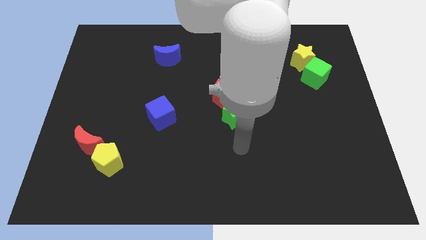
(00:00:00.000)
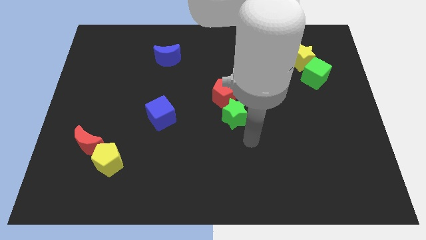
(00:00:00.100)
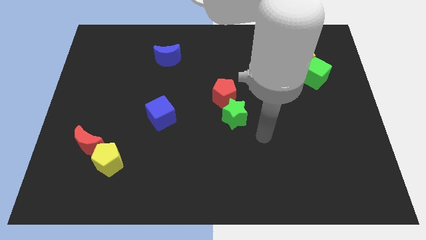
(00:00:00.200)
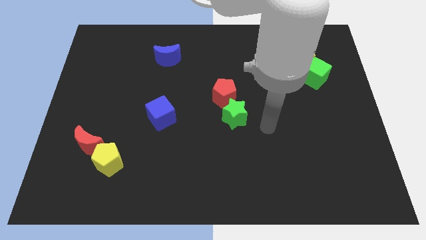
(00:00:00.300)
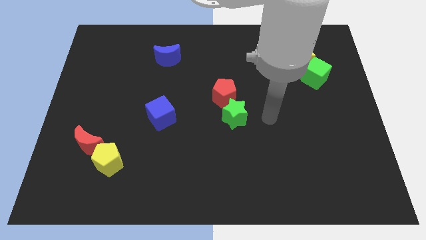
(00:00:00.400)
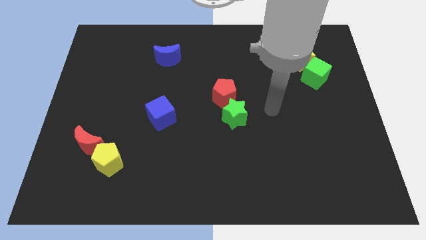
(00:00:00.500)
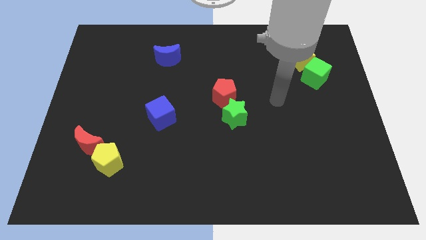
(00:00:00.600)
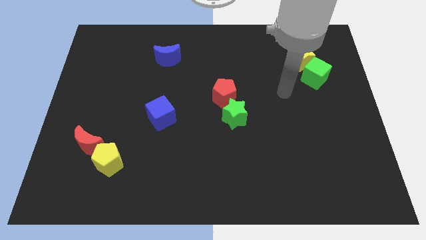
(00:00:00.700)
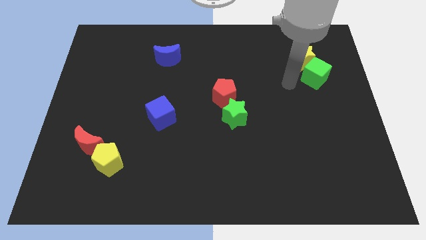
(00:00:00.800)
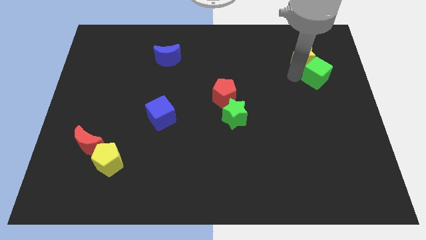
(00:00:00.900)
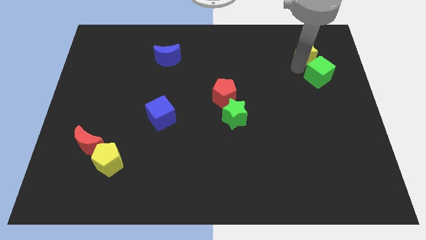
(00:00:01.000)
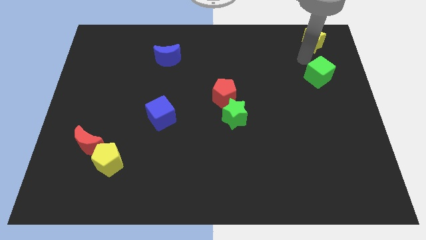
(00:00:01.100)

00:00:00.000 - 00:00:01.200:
move the green cube away from the yellow star

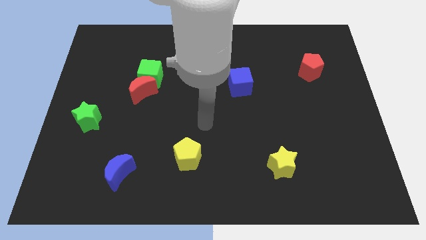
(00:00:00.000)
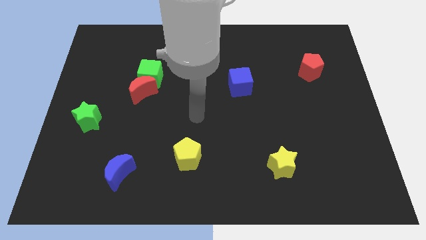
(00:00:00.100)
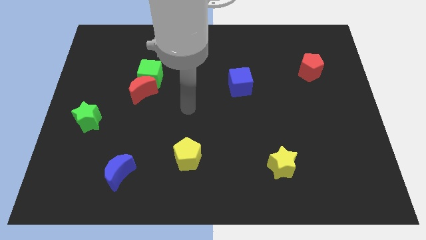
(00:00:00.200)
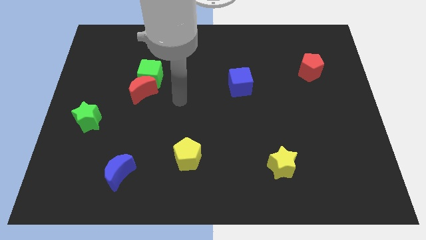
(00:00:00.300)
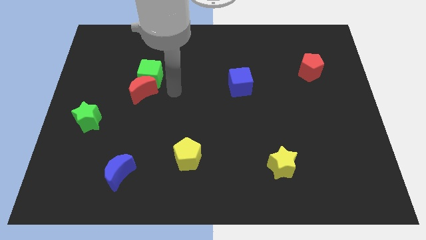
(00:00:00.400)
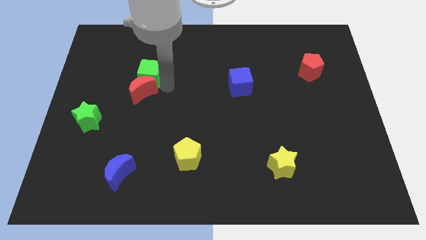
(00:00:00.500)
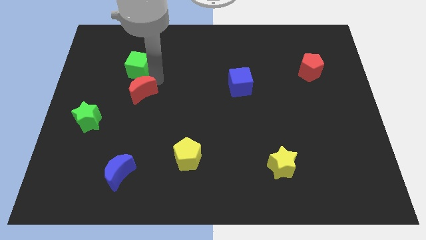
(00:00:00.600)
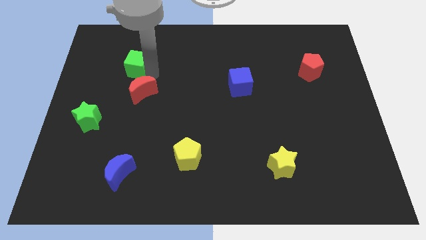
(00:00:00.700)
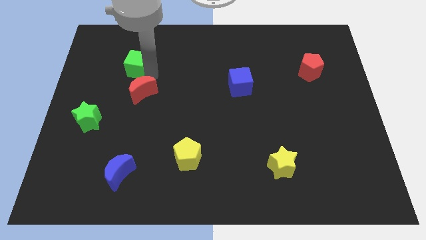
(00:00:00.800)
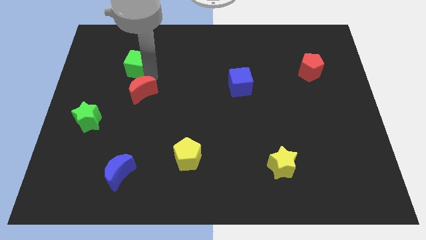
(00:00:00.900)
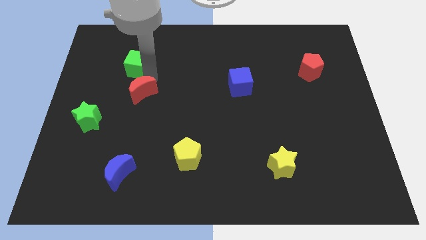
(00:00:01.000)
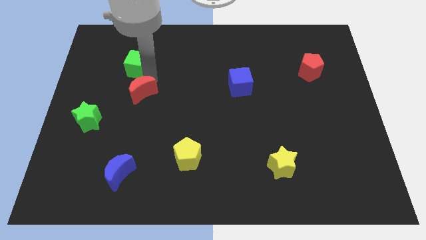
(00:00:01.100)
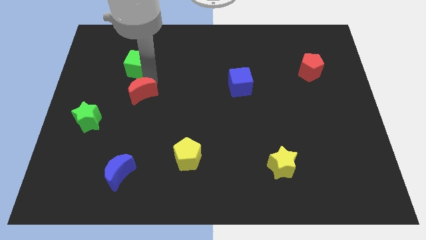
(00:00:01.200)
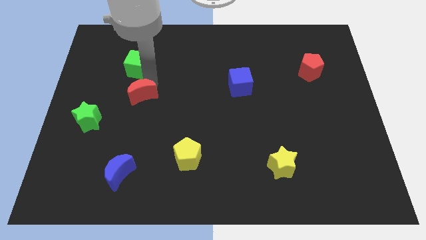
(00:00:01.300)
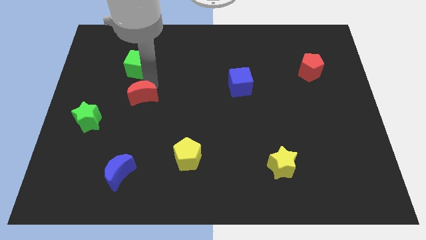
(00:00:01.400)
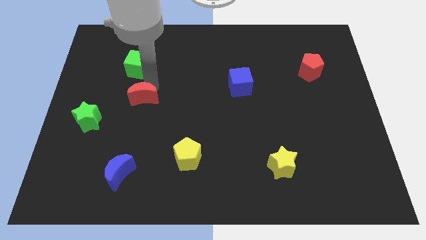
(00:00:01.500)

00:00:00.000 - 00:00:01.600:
move the red moon away from the green cube

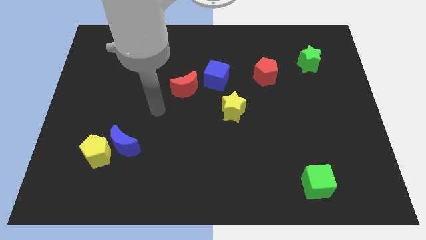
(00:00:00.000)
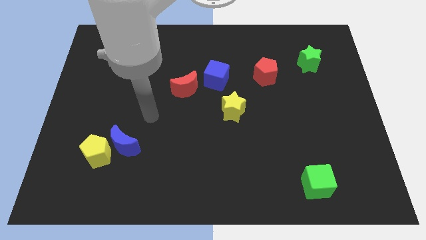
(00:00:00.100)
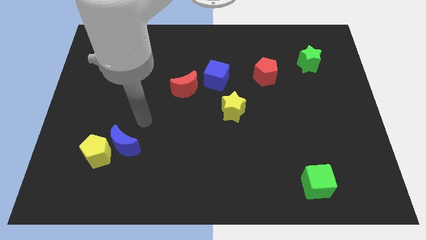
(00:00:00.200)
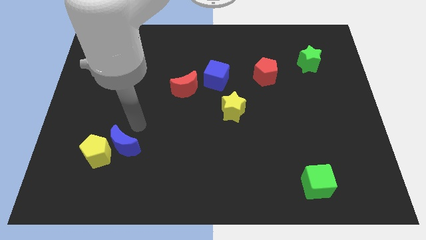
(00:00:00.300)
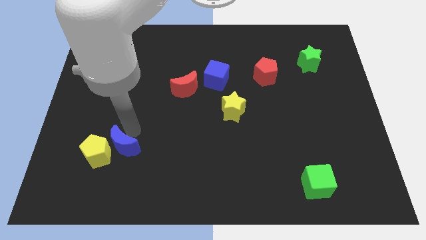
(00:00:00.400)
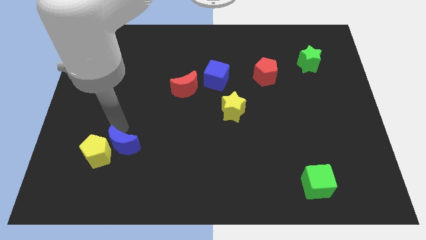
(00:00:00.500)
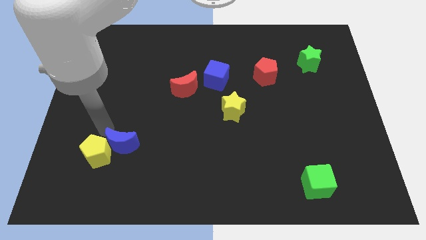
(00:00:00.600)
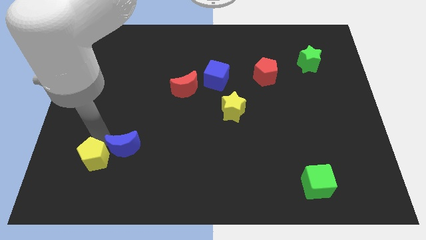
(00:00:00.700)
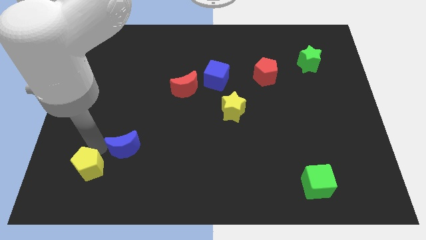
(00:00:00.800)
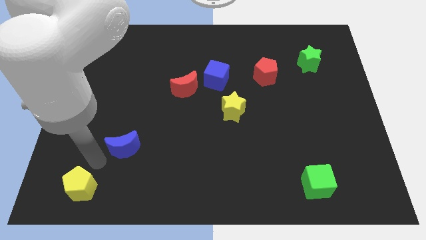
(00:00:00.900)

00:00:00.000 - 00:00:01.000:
separate the blue moon from the yellow pentagon

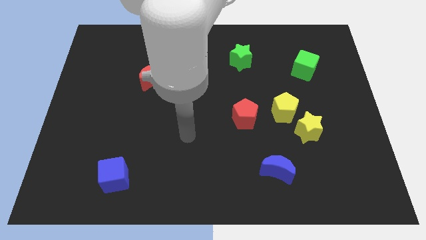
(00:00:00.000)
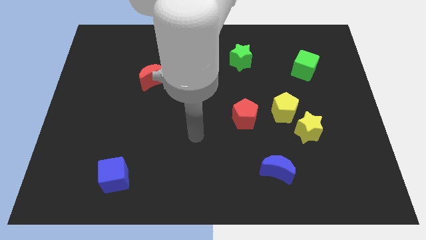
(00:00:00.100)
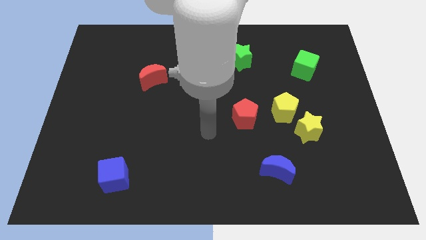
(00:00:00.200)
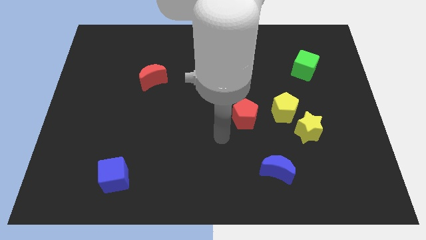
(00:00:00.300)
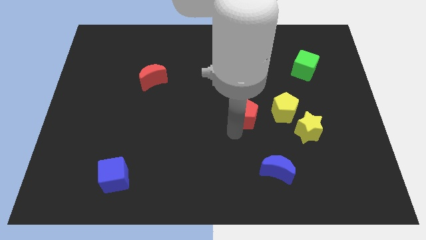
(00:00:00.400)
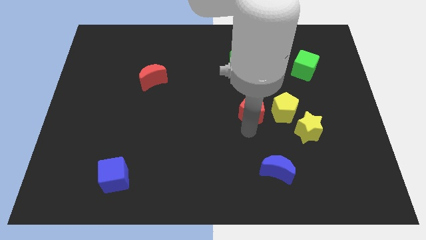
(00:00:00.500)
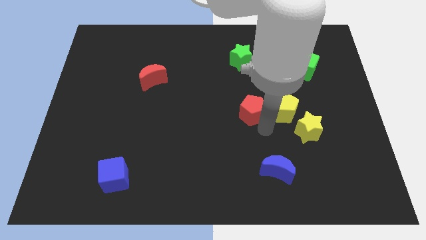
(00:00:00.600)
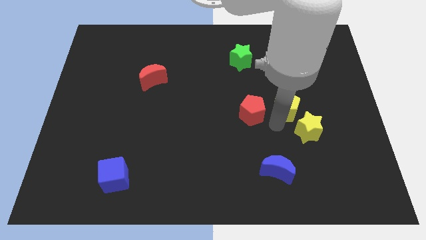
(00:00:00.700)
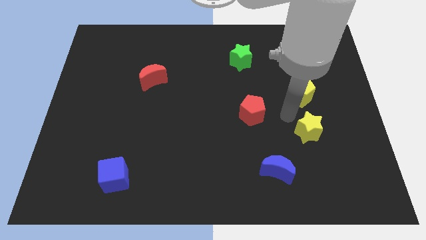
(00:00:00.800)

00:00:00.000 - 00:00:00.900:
pull the yellow star apart from the yellow pentagon

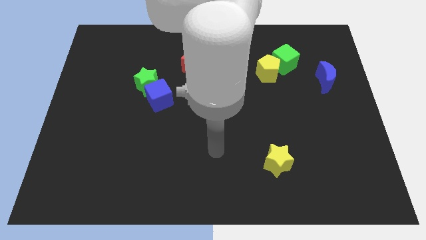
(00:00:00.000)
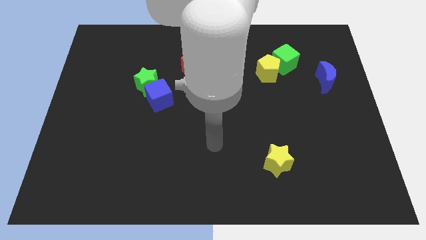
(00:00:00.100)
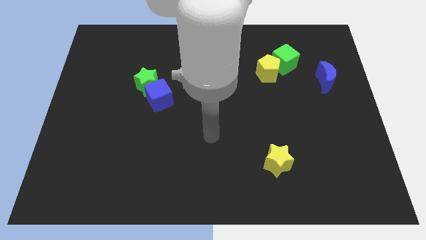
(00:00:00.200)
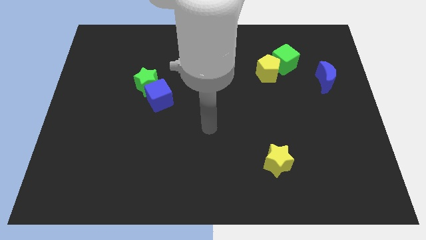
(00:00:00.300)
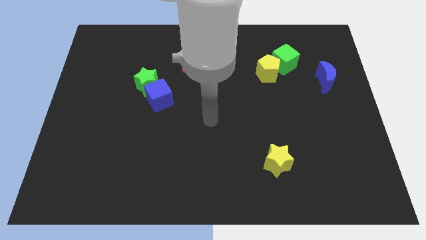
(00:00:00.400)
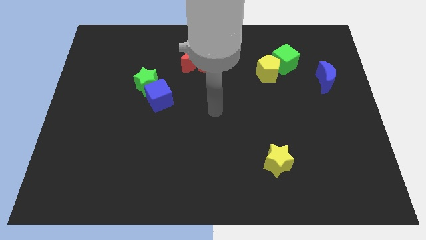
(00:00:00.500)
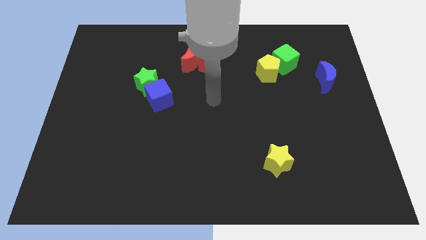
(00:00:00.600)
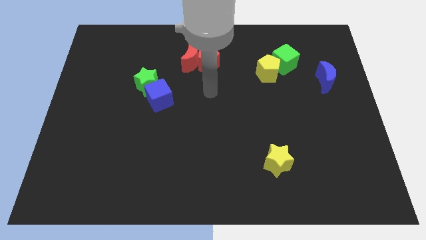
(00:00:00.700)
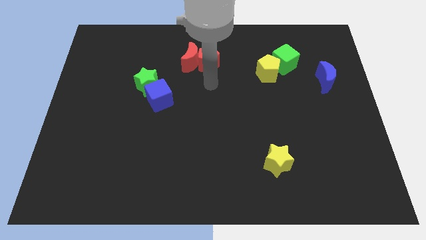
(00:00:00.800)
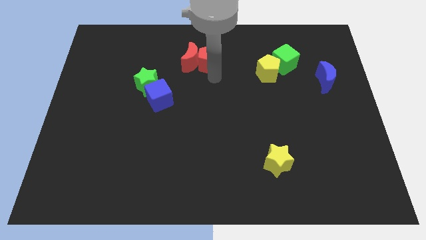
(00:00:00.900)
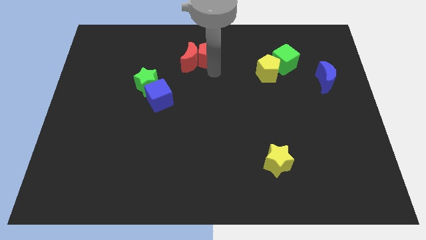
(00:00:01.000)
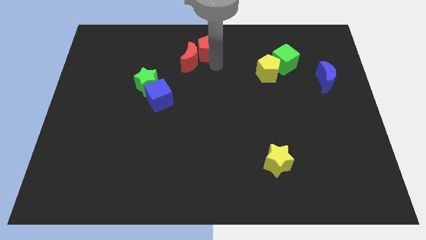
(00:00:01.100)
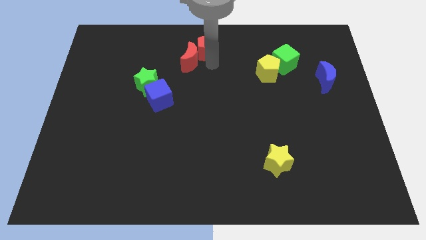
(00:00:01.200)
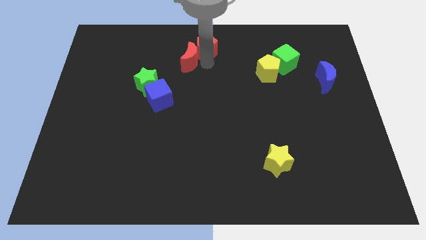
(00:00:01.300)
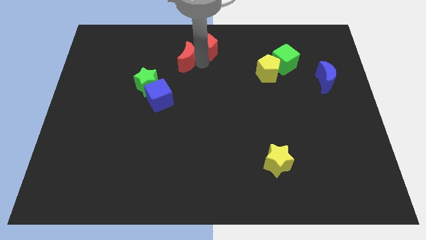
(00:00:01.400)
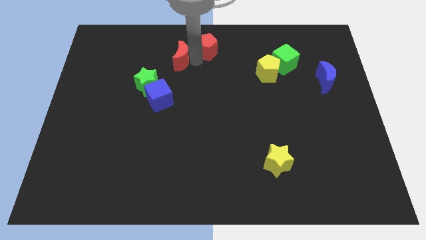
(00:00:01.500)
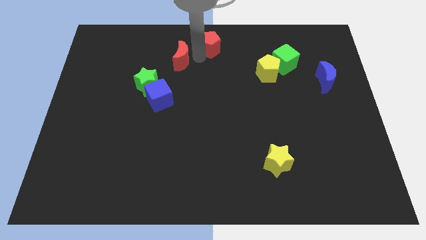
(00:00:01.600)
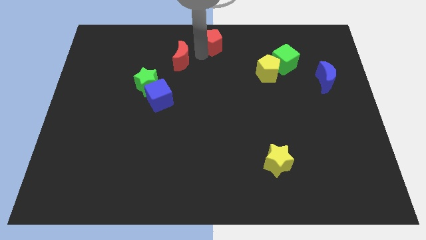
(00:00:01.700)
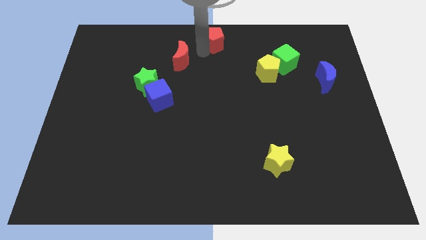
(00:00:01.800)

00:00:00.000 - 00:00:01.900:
move the red moon away from the red pentagon

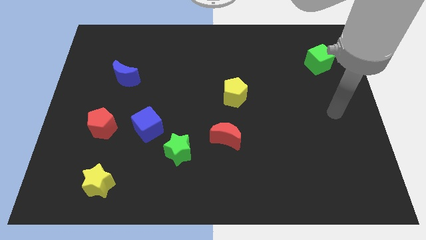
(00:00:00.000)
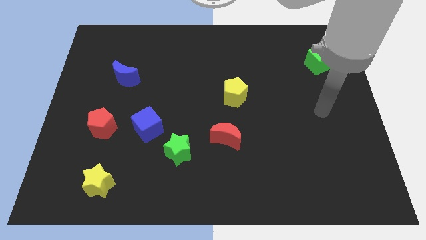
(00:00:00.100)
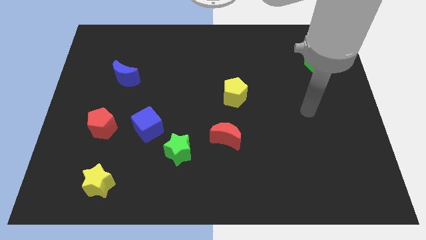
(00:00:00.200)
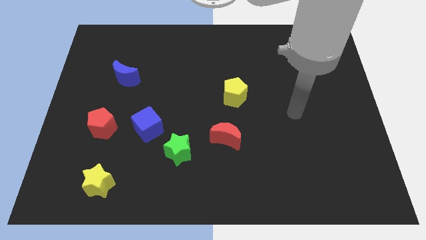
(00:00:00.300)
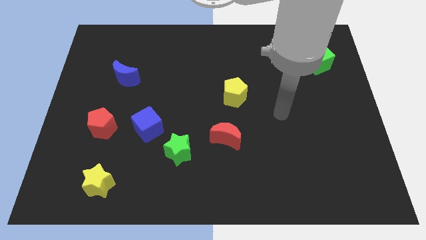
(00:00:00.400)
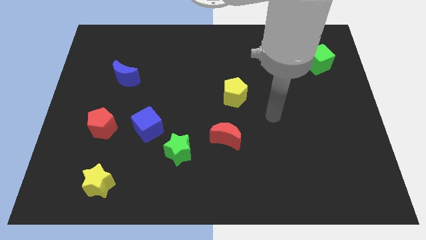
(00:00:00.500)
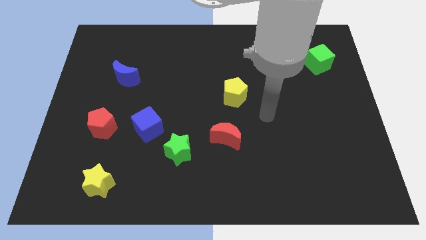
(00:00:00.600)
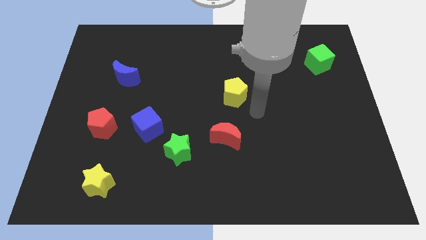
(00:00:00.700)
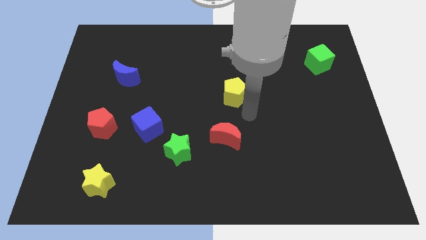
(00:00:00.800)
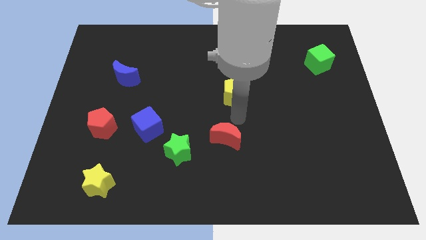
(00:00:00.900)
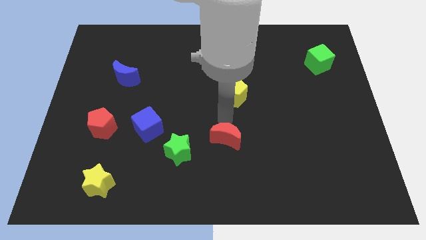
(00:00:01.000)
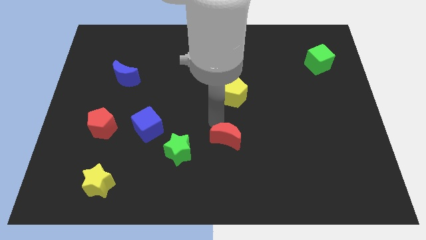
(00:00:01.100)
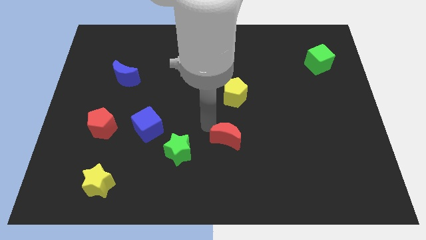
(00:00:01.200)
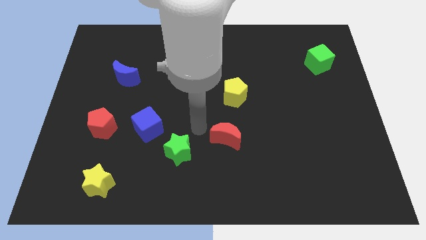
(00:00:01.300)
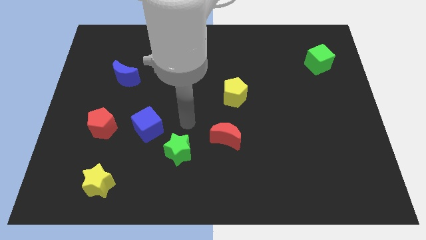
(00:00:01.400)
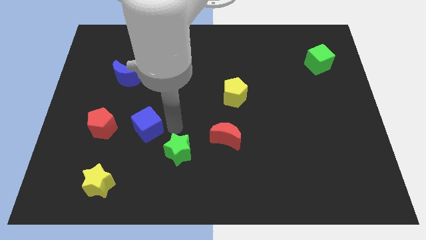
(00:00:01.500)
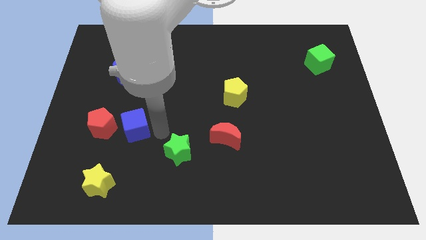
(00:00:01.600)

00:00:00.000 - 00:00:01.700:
pull the green star apart from the blue cube

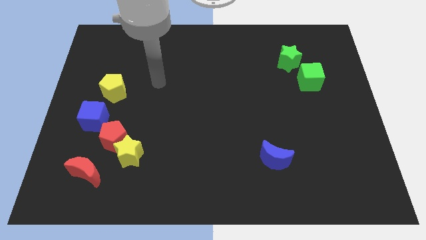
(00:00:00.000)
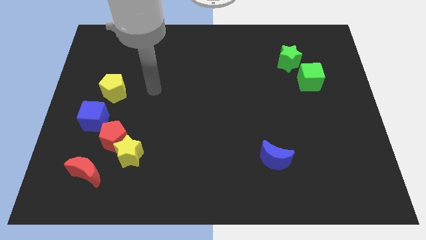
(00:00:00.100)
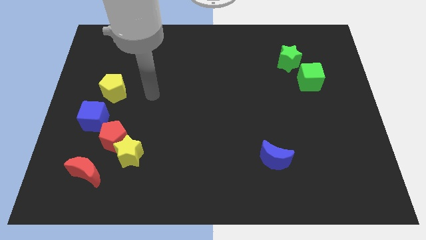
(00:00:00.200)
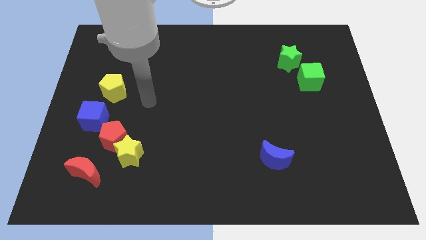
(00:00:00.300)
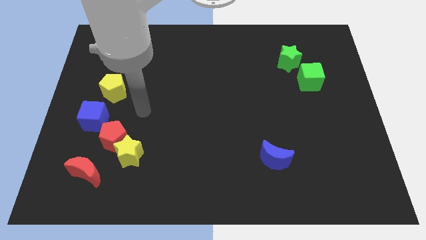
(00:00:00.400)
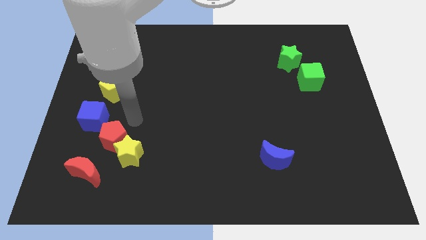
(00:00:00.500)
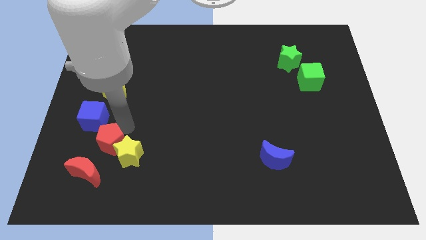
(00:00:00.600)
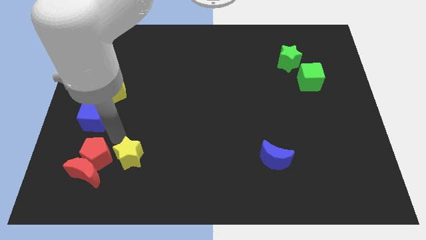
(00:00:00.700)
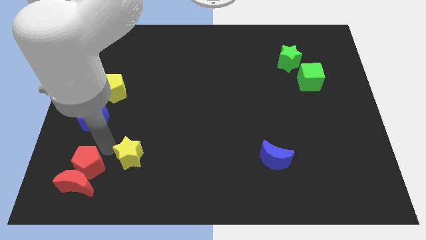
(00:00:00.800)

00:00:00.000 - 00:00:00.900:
pull the yellow star apart from the red pentagon and red moon
